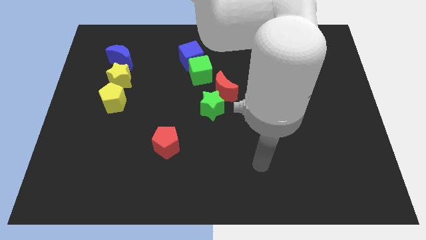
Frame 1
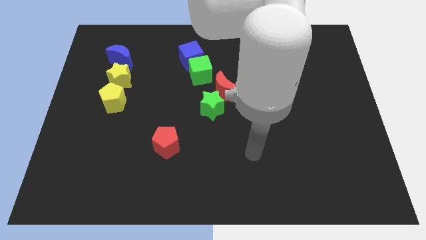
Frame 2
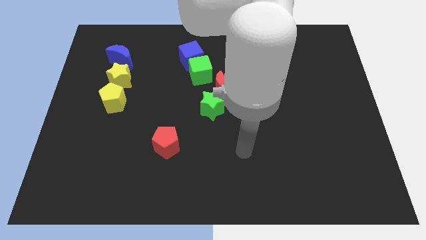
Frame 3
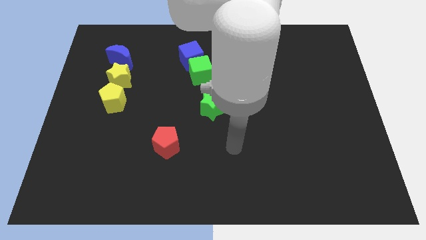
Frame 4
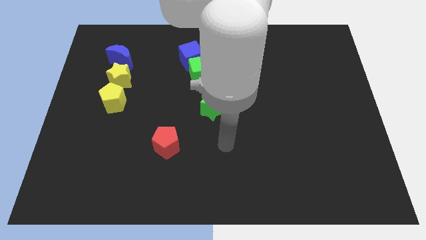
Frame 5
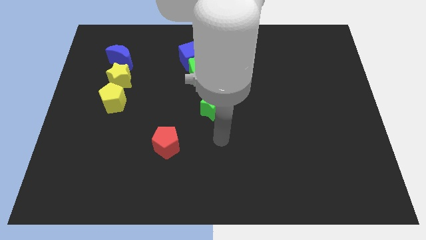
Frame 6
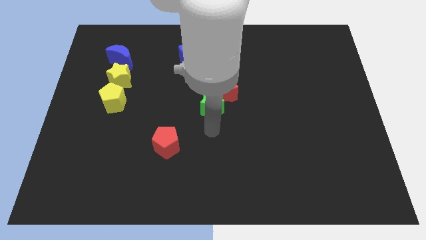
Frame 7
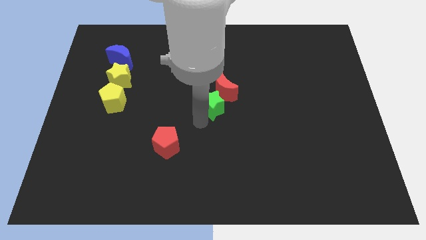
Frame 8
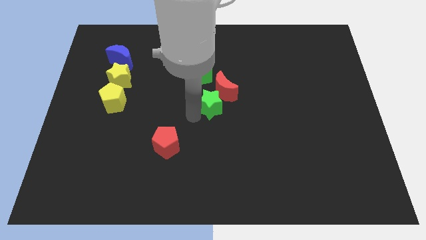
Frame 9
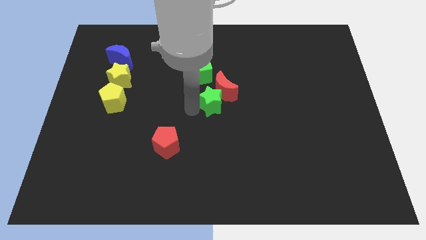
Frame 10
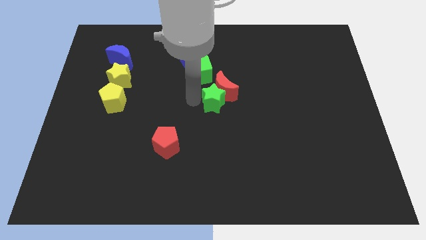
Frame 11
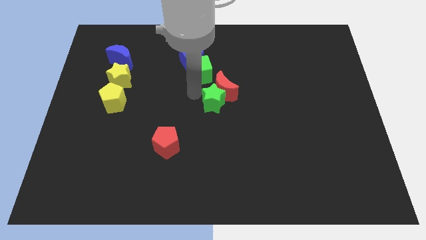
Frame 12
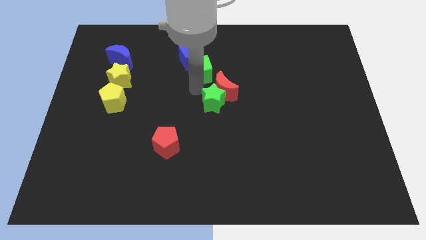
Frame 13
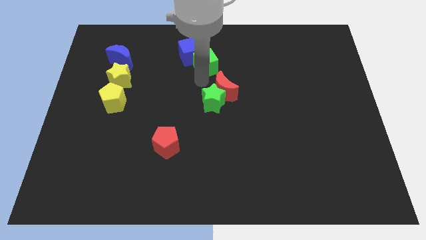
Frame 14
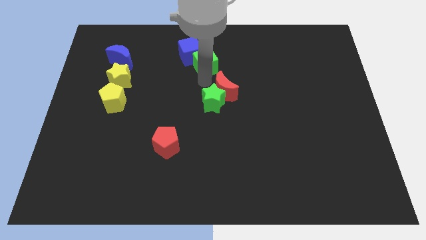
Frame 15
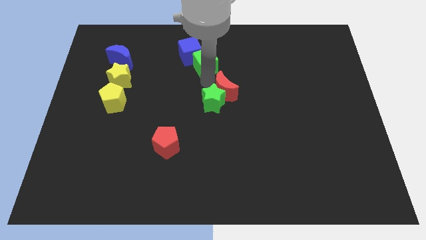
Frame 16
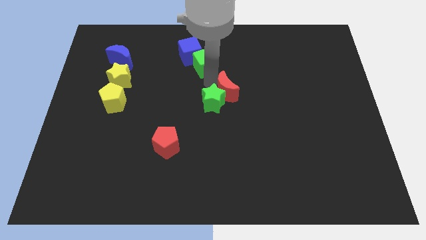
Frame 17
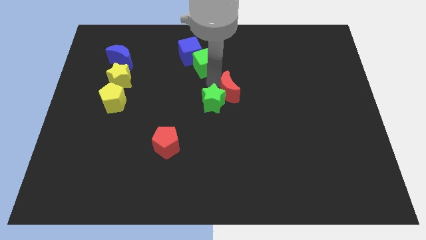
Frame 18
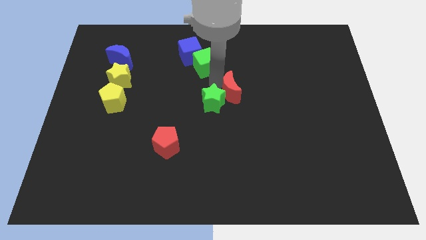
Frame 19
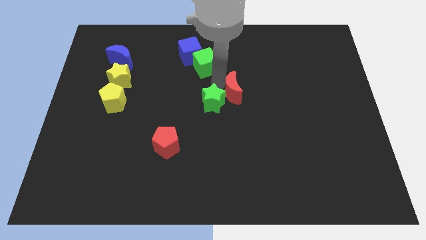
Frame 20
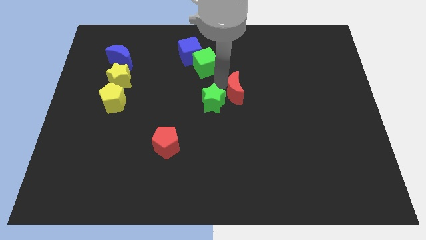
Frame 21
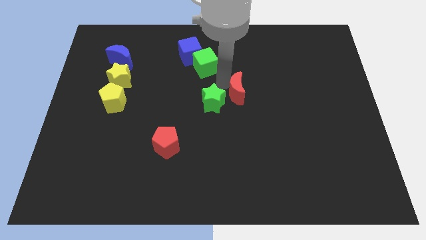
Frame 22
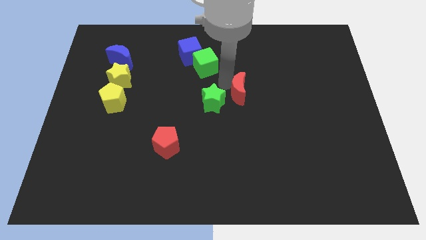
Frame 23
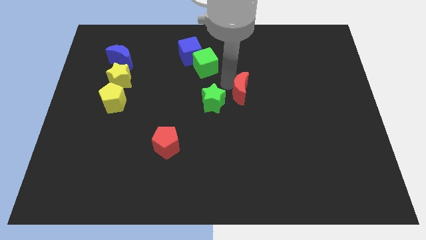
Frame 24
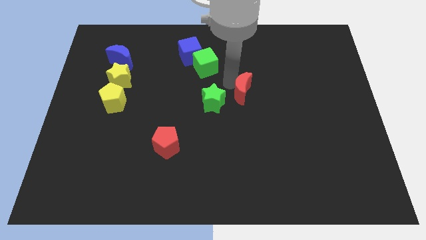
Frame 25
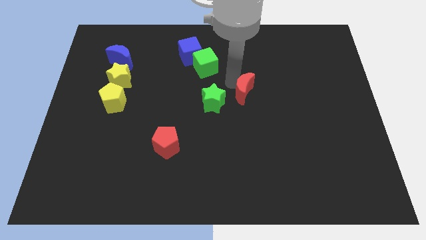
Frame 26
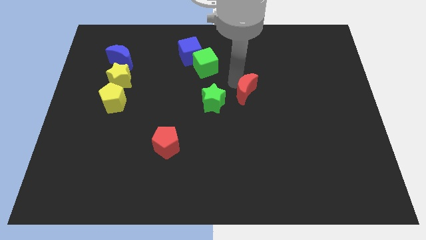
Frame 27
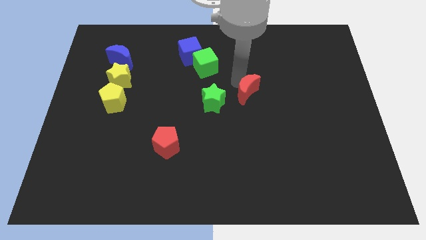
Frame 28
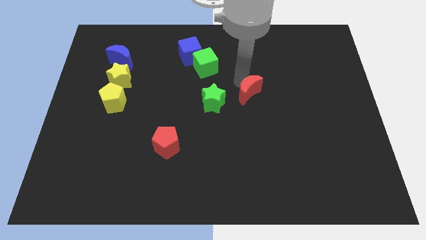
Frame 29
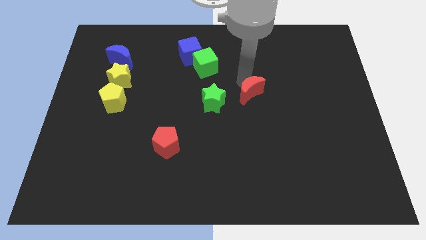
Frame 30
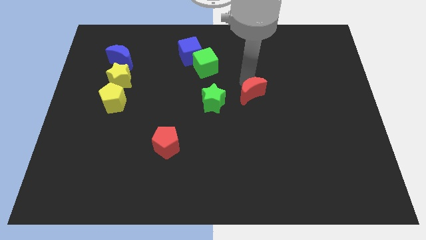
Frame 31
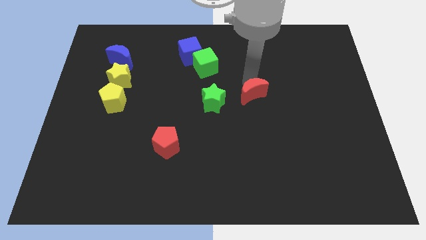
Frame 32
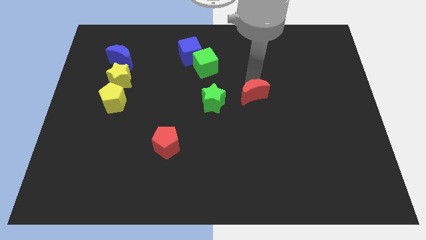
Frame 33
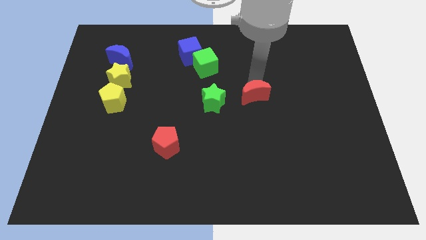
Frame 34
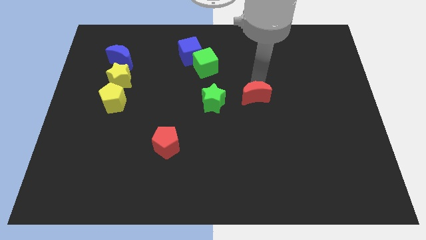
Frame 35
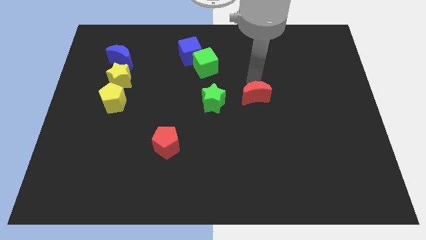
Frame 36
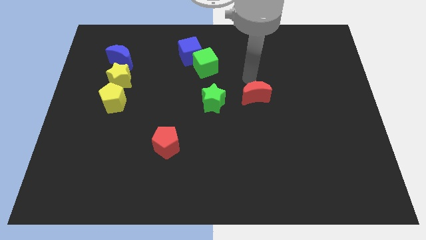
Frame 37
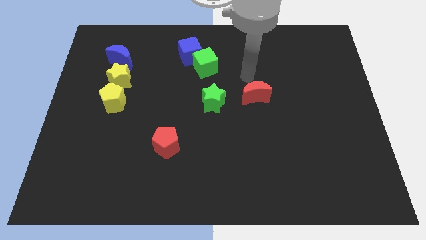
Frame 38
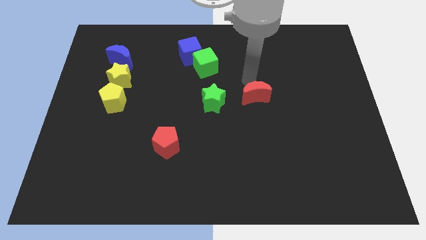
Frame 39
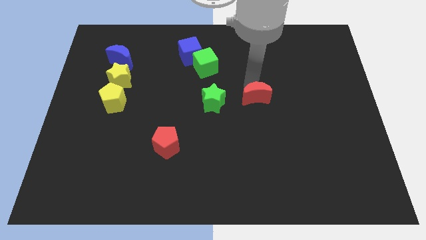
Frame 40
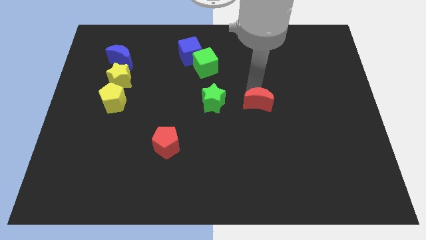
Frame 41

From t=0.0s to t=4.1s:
move the red moon slightly down and to the right diagonally

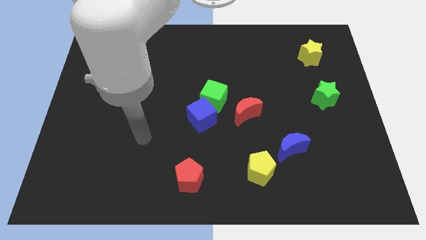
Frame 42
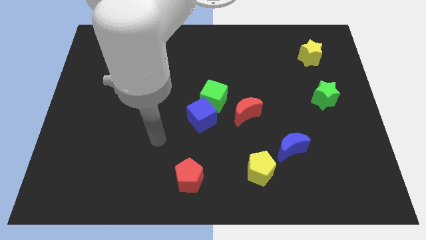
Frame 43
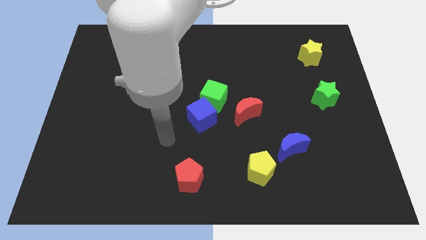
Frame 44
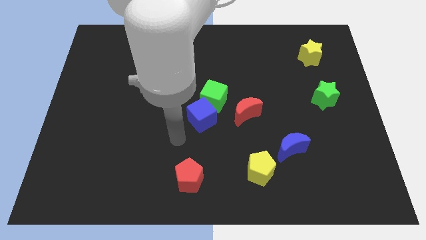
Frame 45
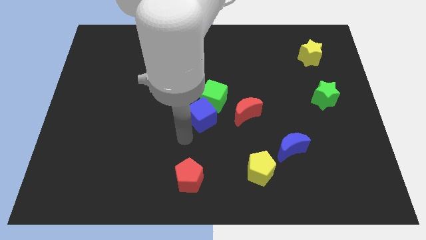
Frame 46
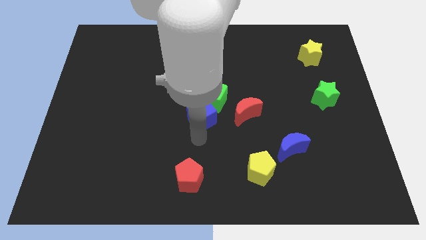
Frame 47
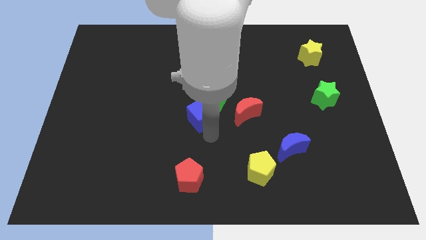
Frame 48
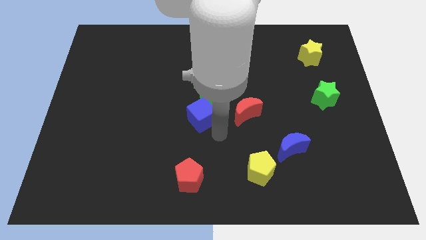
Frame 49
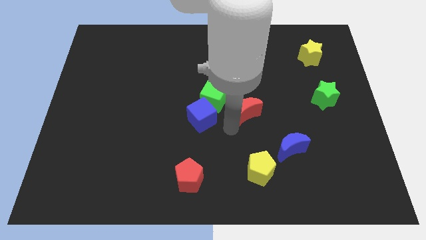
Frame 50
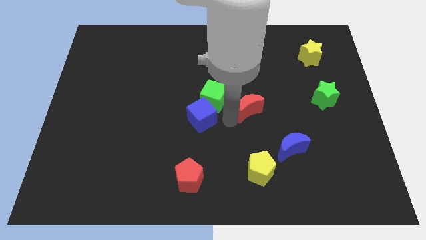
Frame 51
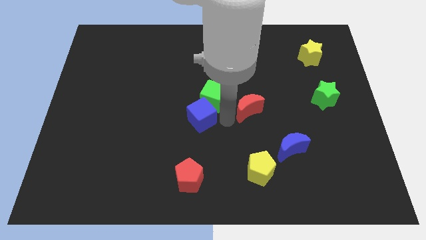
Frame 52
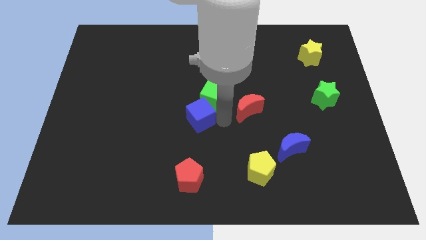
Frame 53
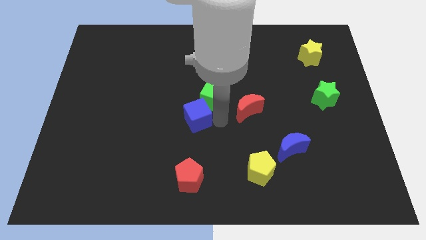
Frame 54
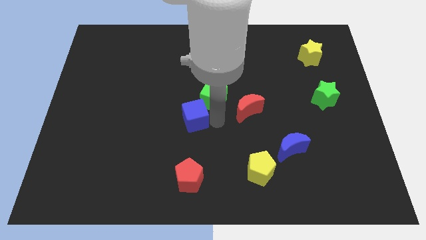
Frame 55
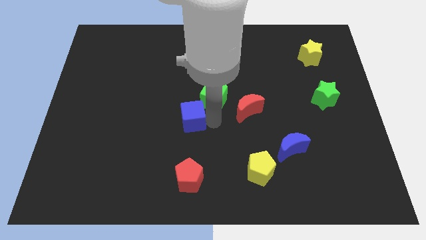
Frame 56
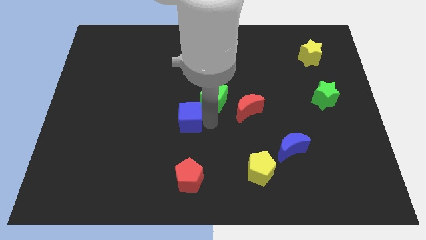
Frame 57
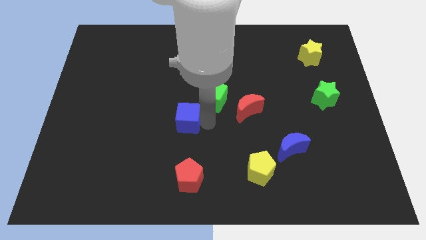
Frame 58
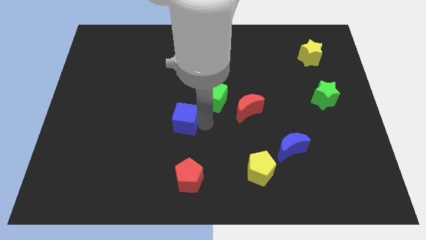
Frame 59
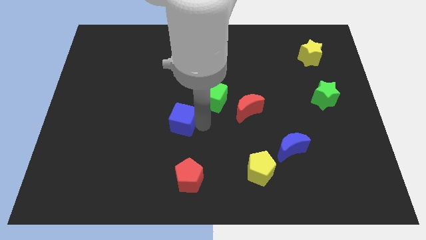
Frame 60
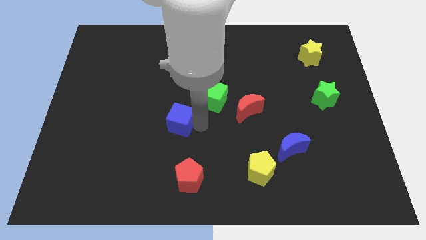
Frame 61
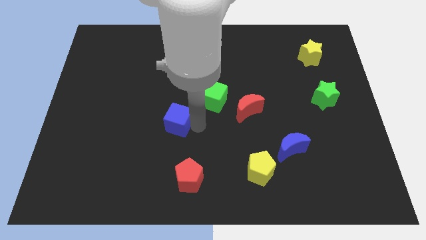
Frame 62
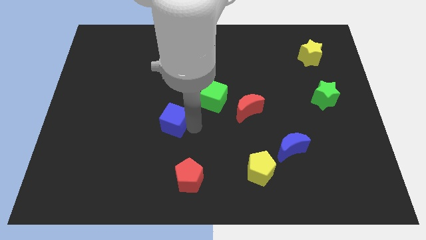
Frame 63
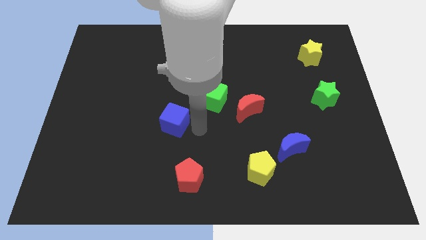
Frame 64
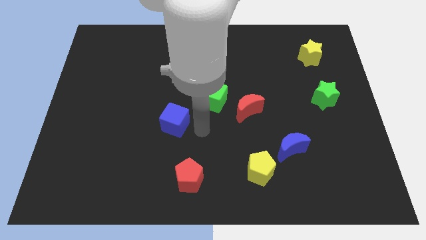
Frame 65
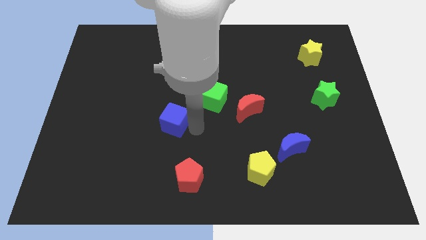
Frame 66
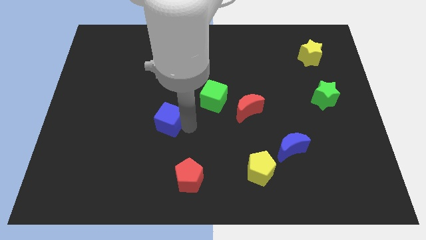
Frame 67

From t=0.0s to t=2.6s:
slightly move the blue cube left

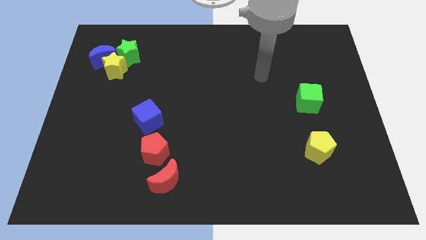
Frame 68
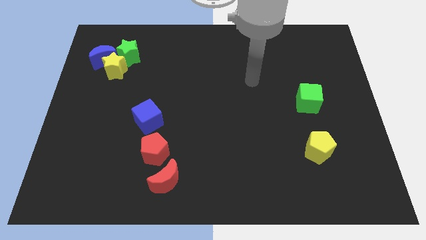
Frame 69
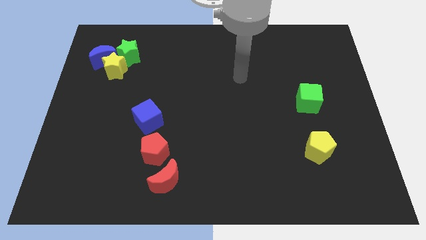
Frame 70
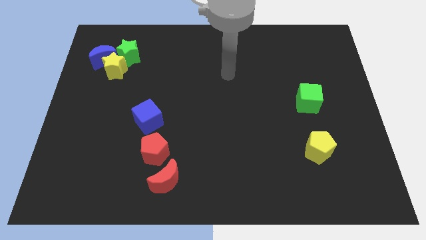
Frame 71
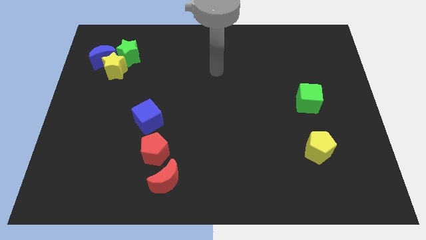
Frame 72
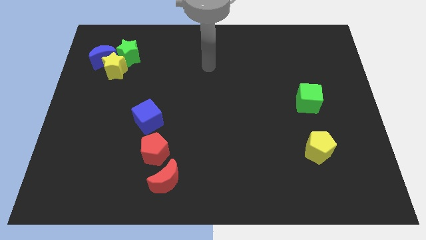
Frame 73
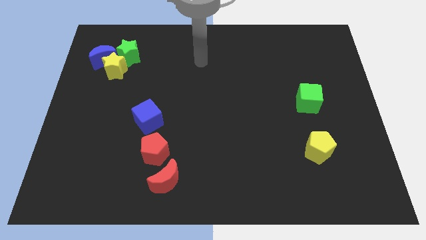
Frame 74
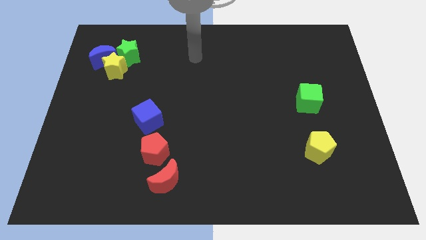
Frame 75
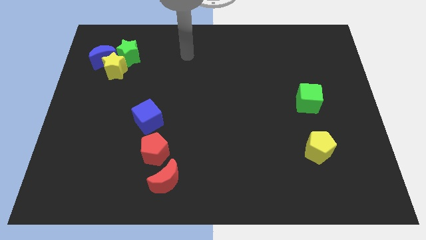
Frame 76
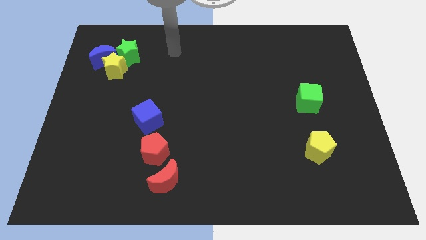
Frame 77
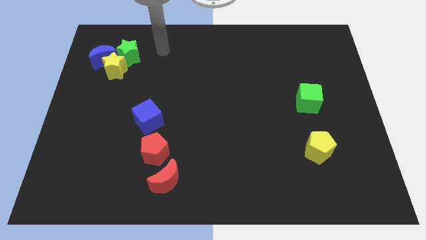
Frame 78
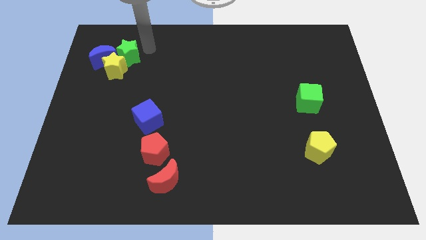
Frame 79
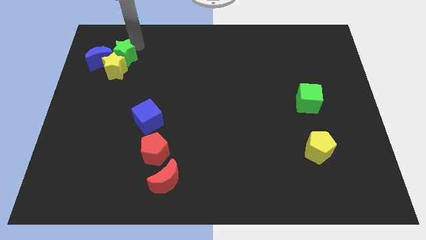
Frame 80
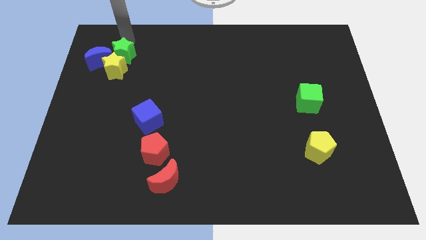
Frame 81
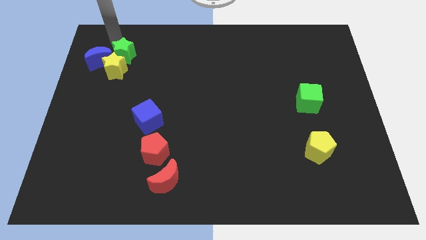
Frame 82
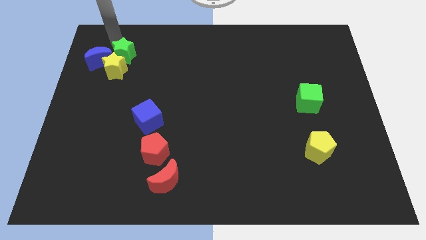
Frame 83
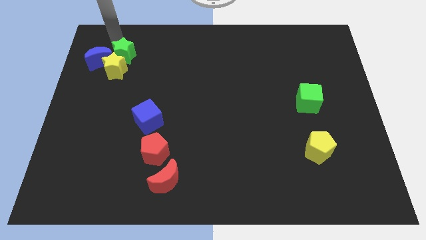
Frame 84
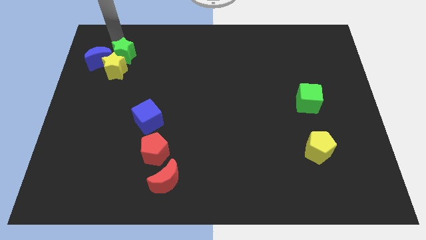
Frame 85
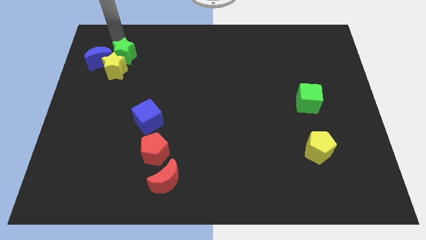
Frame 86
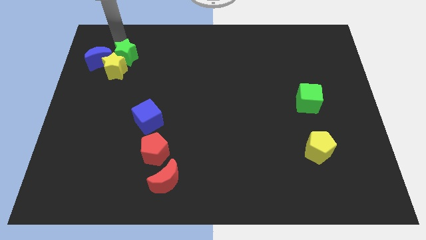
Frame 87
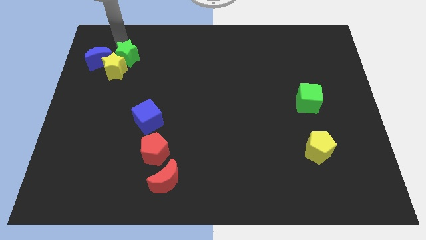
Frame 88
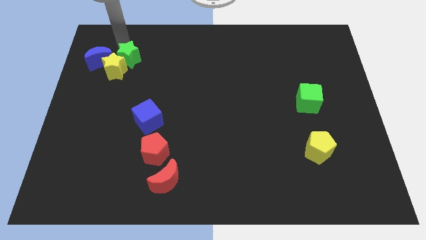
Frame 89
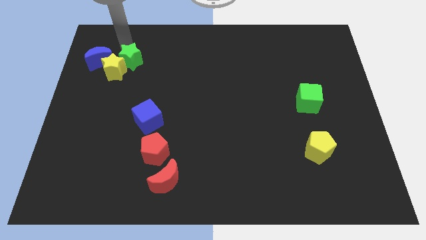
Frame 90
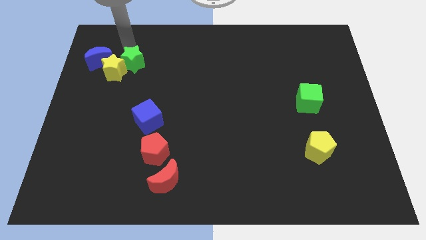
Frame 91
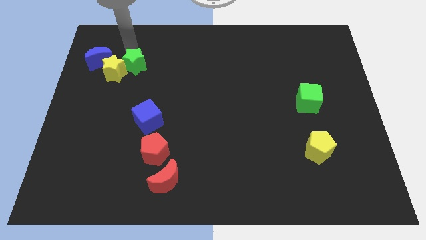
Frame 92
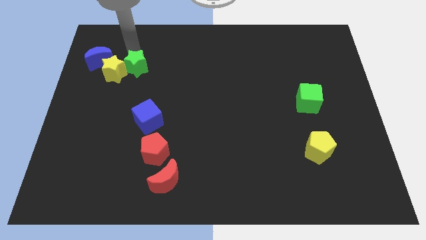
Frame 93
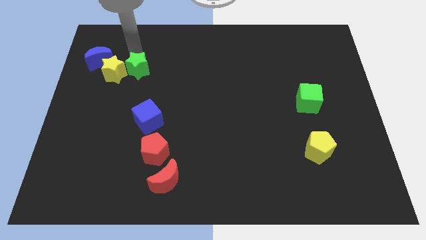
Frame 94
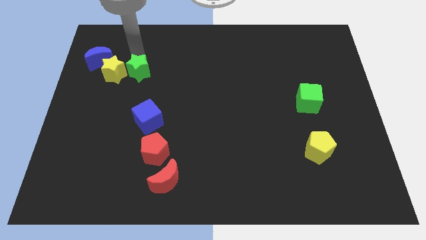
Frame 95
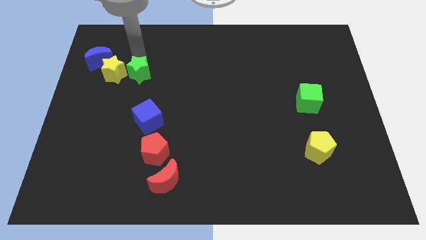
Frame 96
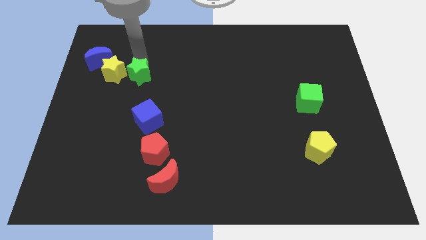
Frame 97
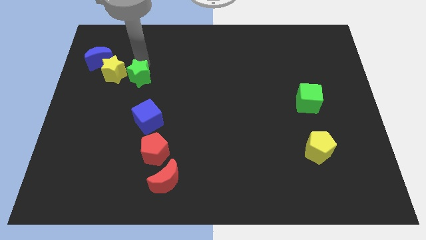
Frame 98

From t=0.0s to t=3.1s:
slightly slide the green star downwards
